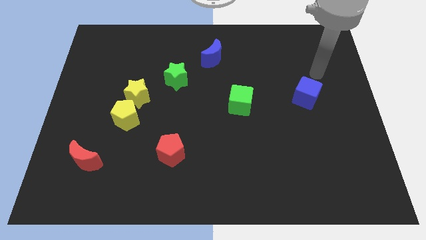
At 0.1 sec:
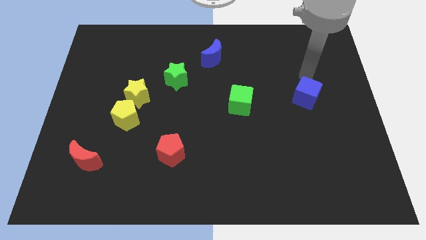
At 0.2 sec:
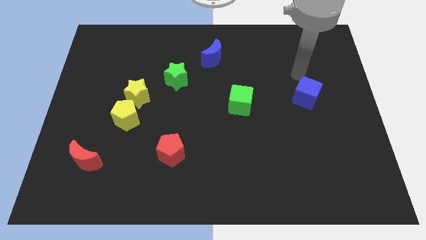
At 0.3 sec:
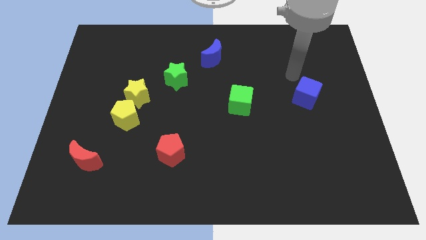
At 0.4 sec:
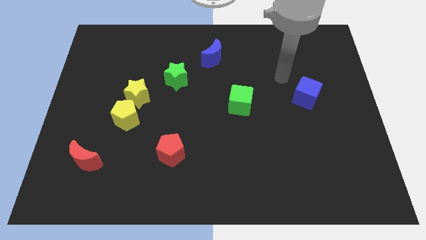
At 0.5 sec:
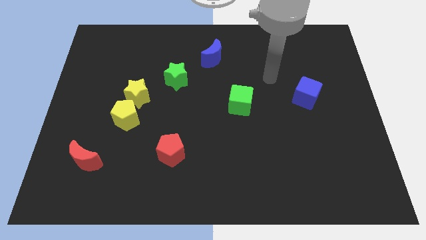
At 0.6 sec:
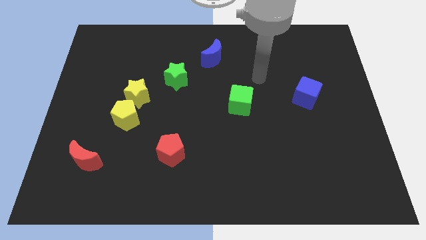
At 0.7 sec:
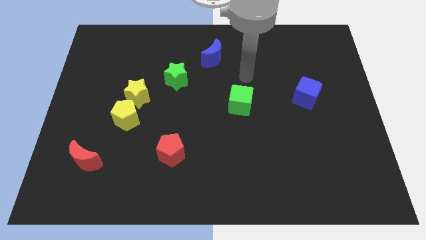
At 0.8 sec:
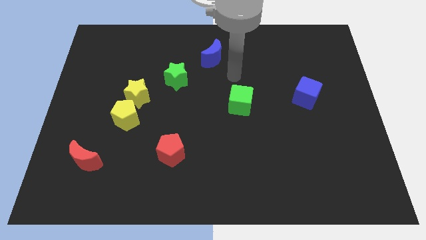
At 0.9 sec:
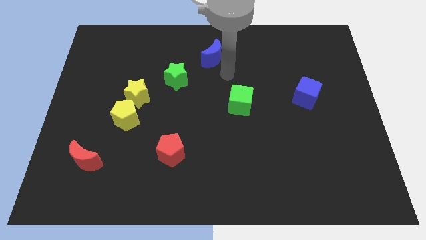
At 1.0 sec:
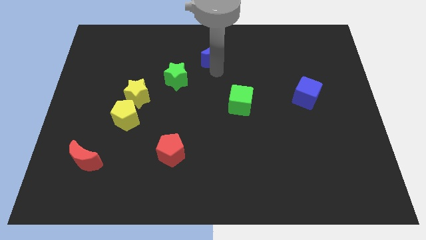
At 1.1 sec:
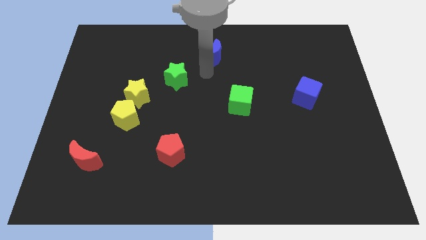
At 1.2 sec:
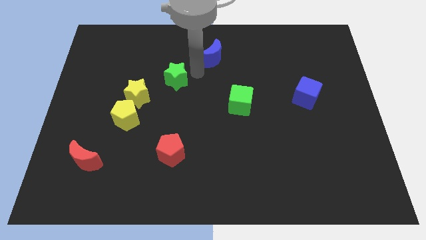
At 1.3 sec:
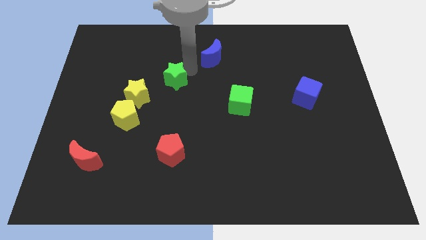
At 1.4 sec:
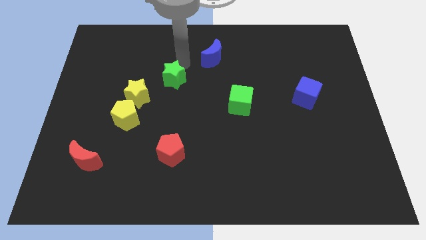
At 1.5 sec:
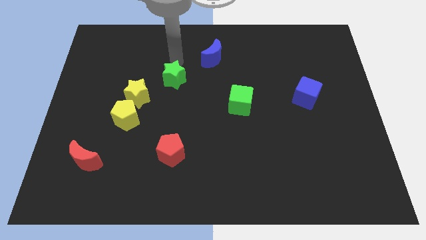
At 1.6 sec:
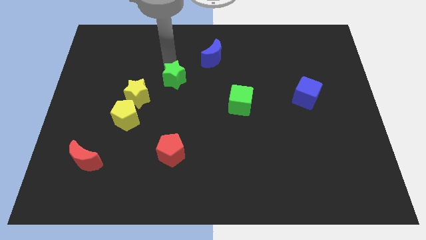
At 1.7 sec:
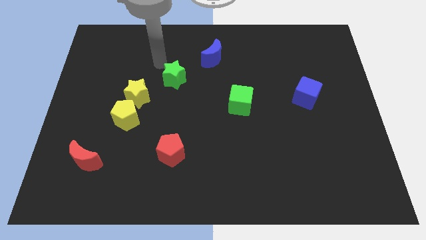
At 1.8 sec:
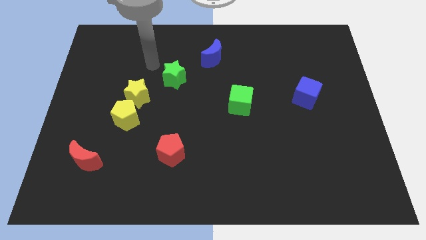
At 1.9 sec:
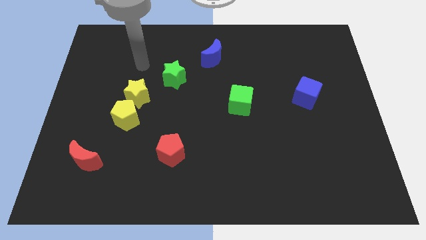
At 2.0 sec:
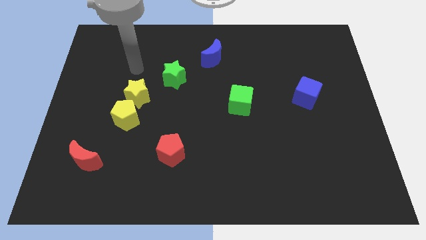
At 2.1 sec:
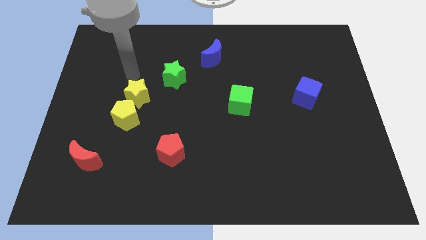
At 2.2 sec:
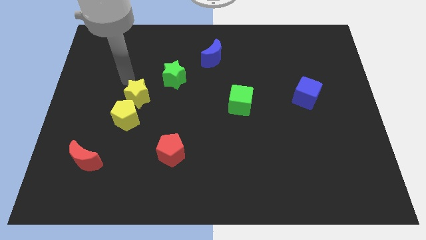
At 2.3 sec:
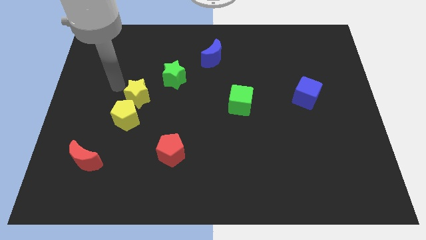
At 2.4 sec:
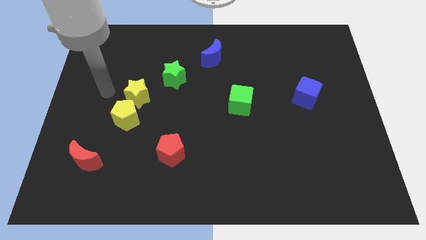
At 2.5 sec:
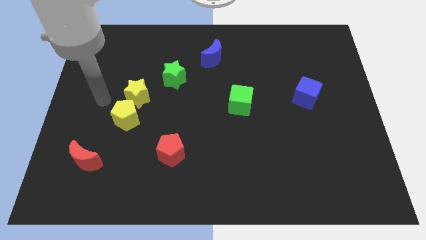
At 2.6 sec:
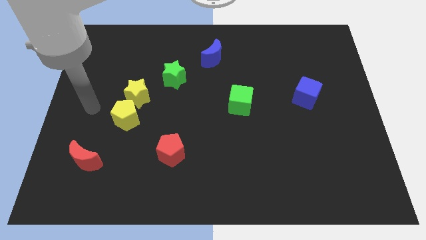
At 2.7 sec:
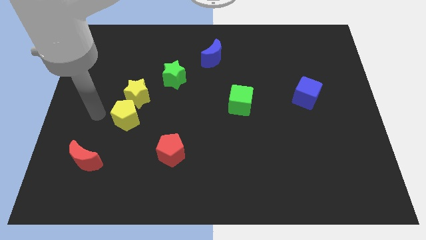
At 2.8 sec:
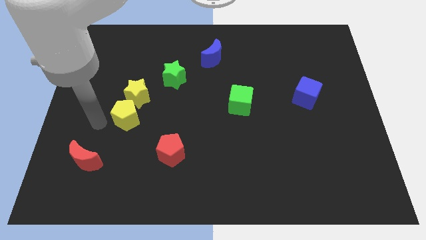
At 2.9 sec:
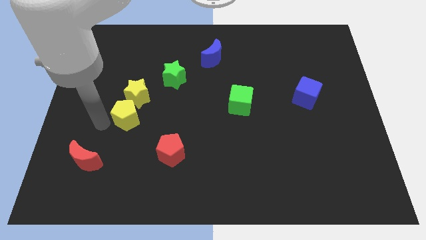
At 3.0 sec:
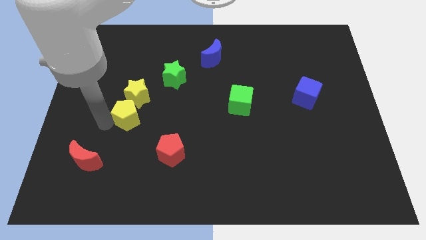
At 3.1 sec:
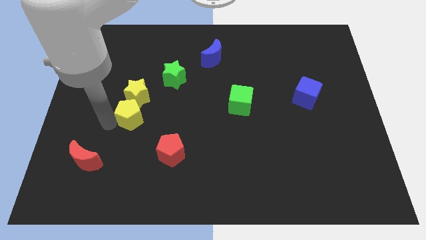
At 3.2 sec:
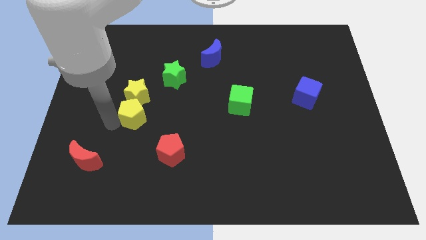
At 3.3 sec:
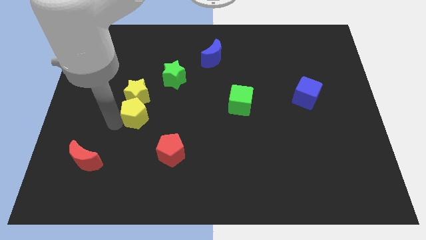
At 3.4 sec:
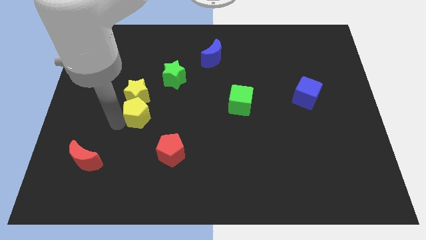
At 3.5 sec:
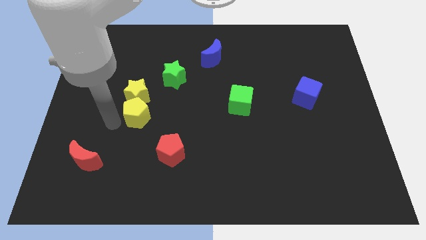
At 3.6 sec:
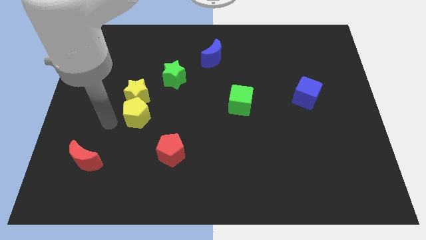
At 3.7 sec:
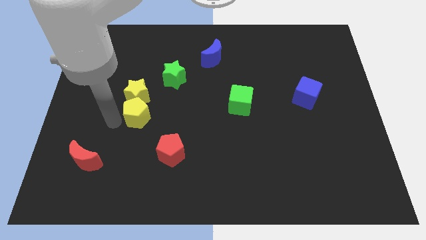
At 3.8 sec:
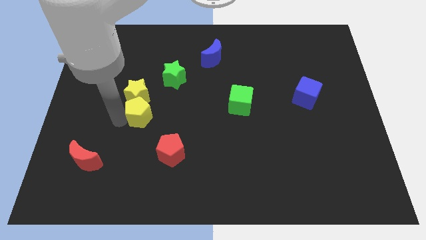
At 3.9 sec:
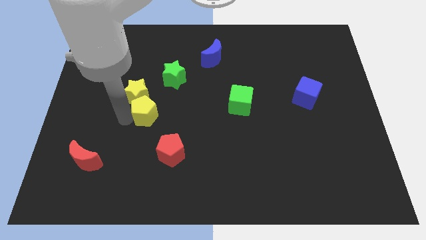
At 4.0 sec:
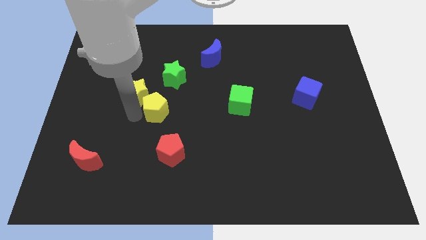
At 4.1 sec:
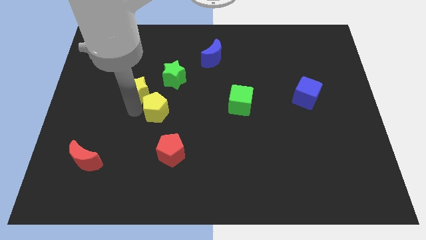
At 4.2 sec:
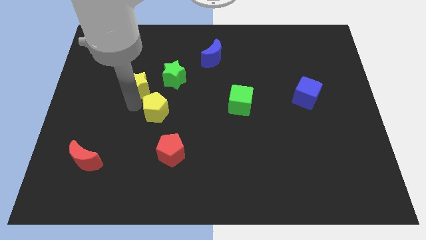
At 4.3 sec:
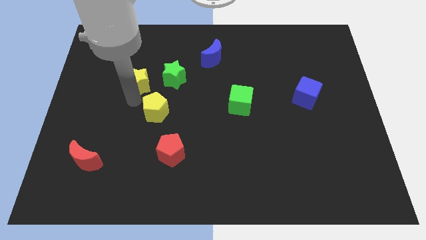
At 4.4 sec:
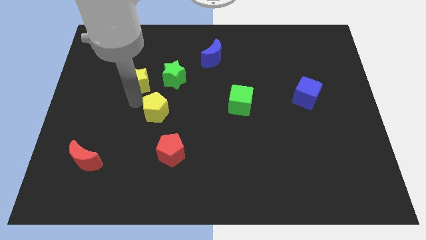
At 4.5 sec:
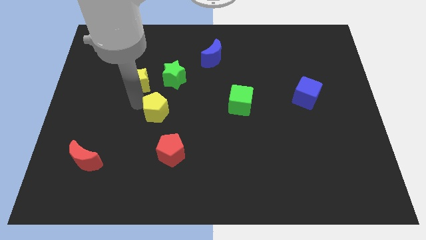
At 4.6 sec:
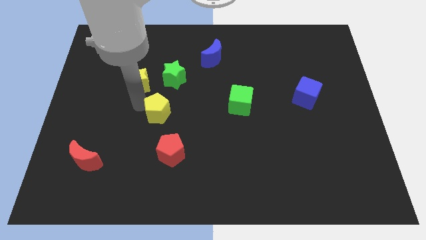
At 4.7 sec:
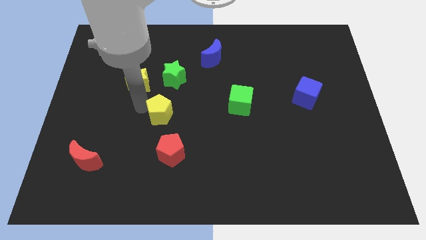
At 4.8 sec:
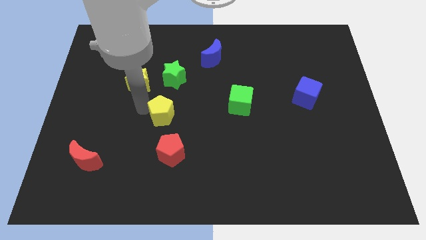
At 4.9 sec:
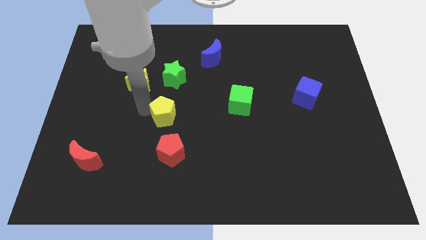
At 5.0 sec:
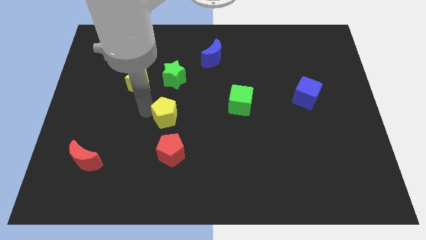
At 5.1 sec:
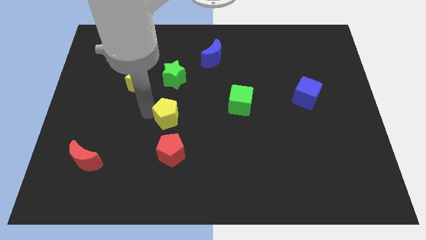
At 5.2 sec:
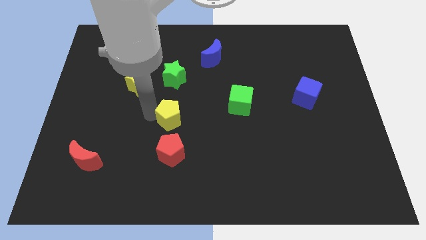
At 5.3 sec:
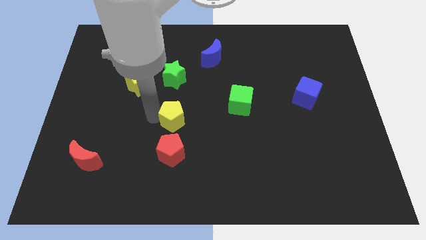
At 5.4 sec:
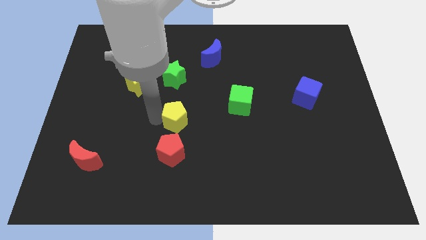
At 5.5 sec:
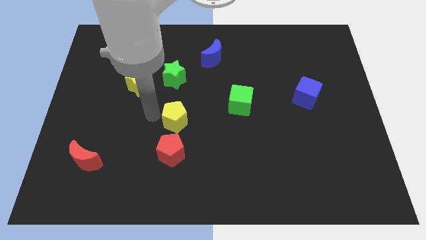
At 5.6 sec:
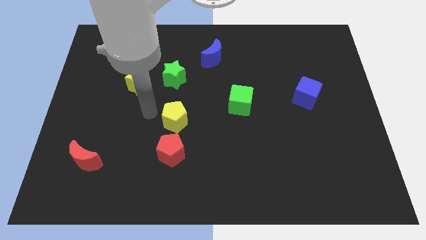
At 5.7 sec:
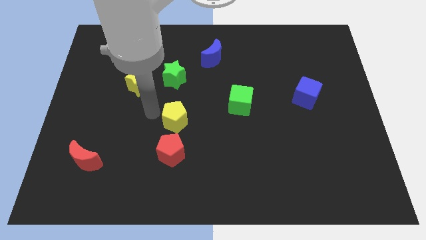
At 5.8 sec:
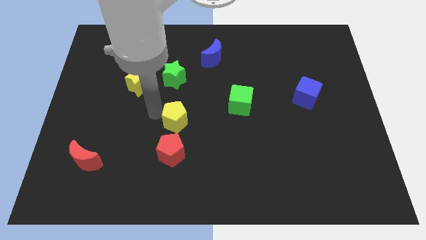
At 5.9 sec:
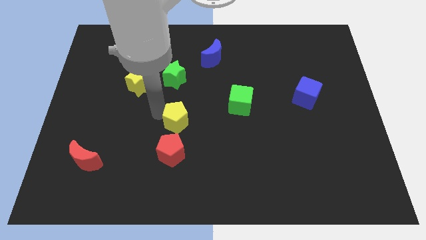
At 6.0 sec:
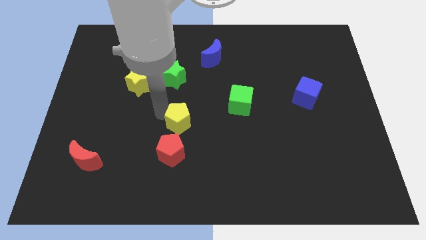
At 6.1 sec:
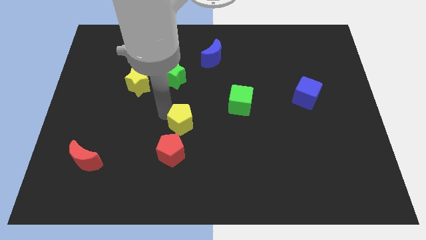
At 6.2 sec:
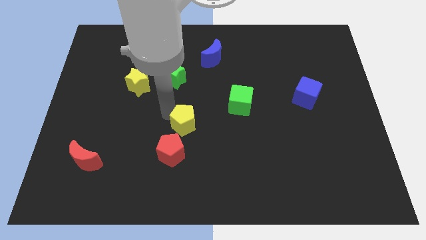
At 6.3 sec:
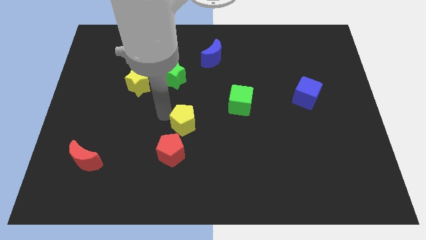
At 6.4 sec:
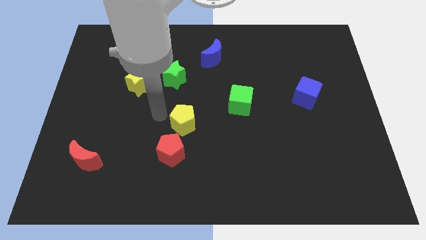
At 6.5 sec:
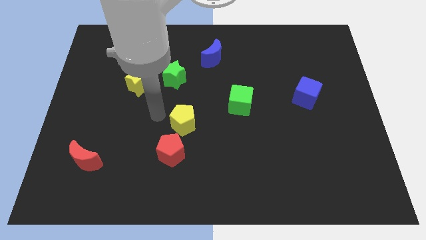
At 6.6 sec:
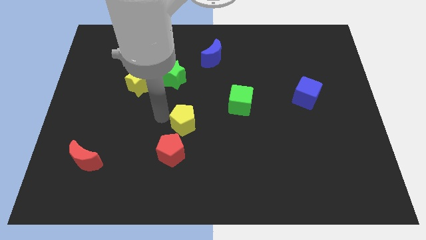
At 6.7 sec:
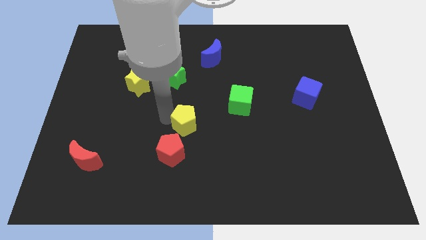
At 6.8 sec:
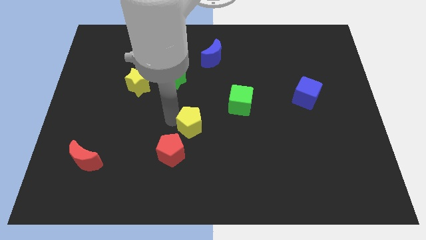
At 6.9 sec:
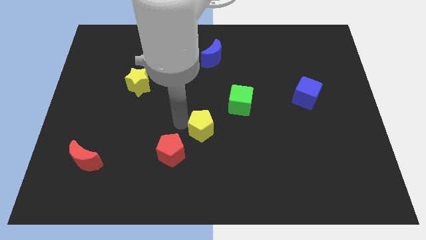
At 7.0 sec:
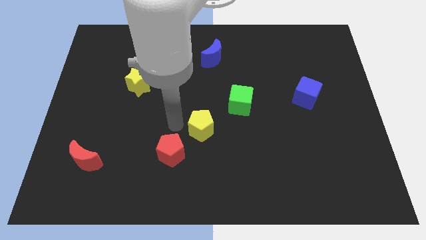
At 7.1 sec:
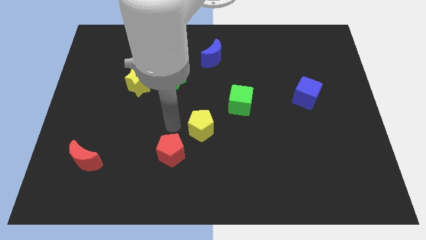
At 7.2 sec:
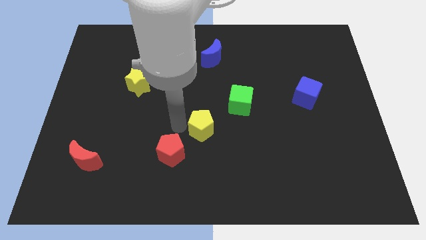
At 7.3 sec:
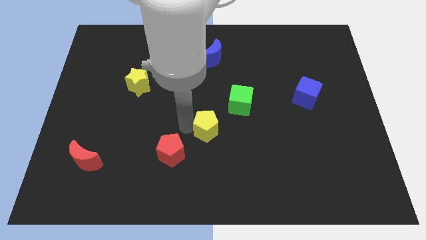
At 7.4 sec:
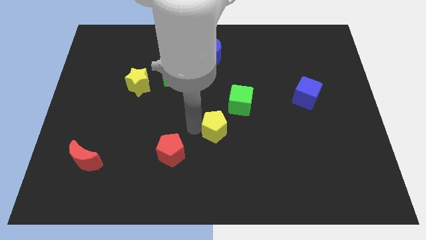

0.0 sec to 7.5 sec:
push the yellow pentagon to the right

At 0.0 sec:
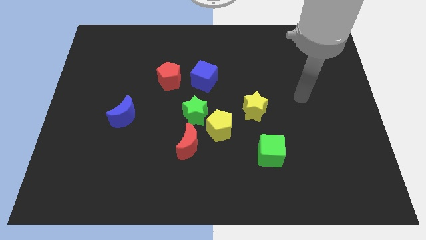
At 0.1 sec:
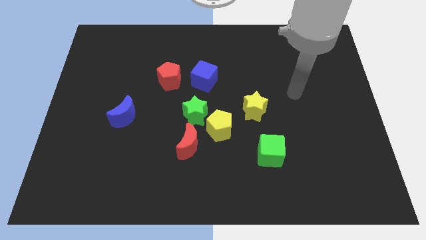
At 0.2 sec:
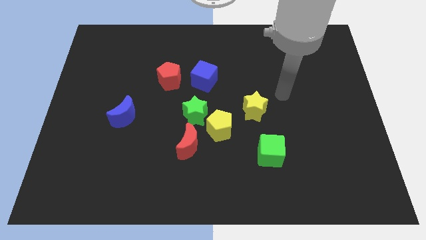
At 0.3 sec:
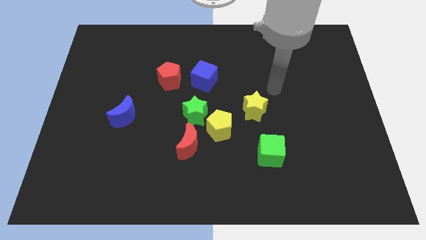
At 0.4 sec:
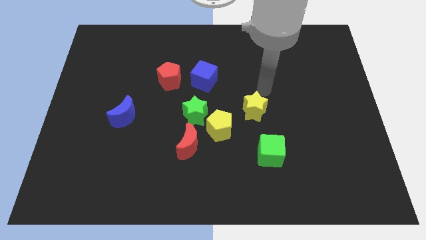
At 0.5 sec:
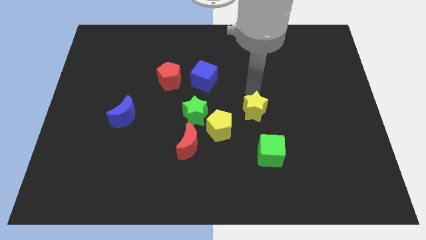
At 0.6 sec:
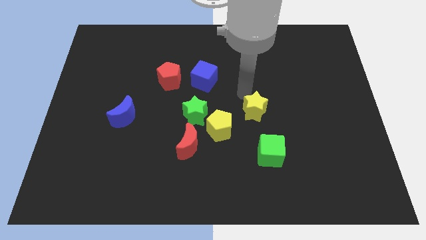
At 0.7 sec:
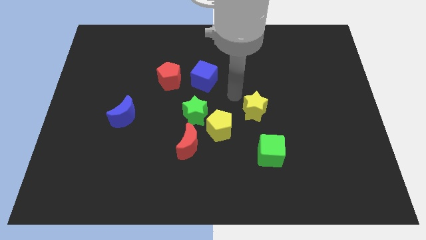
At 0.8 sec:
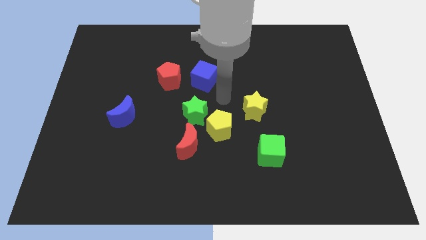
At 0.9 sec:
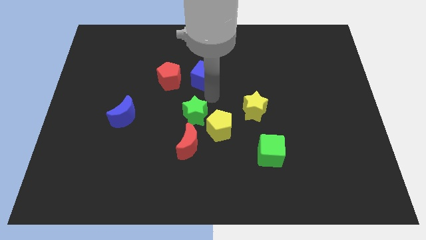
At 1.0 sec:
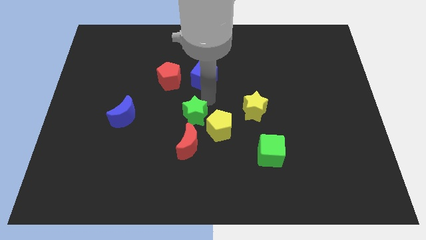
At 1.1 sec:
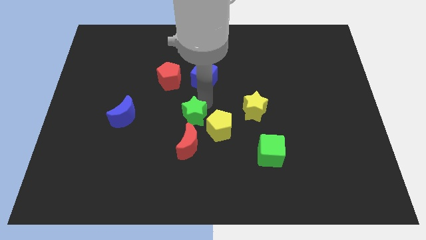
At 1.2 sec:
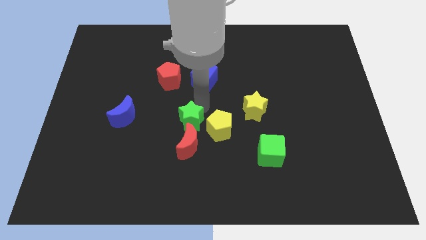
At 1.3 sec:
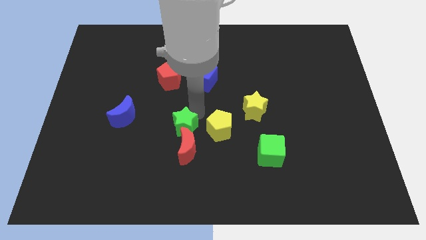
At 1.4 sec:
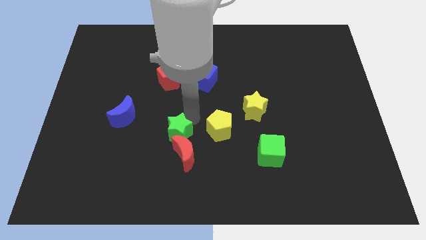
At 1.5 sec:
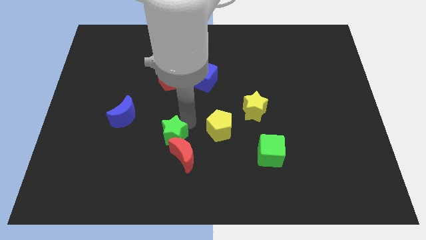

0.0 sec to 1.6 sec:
slightly move the green star downwards and then to the left
